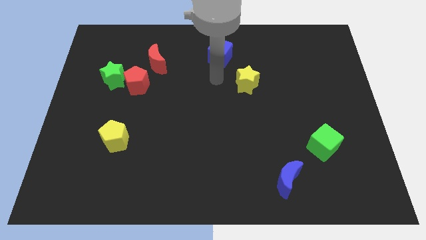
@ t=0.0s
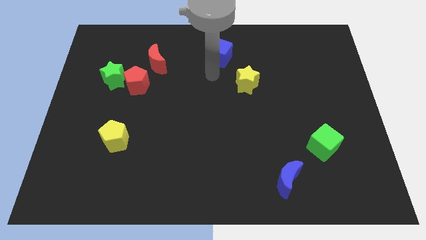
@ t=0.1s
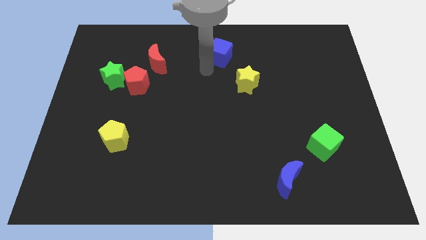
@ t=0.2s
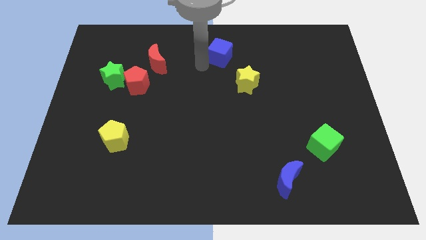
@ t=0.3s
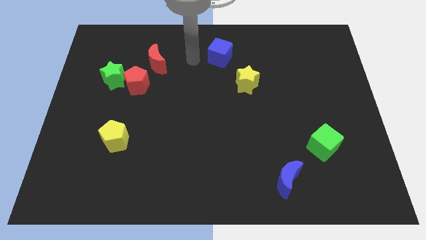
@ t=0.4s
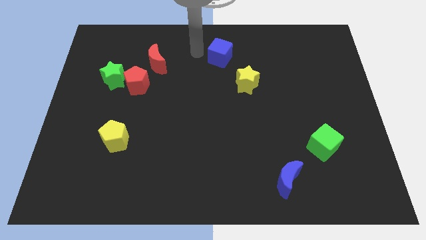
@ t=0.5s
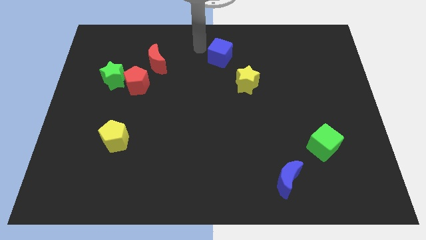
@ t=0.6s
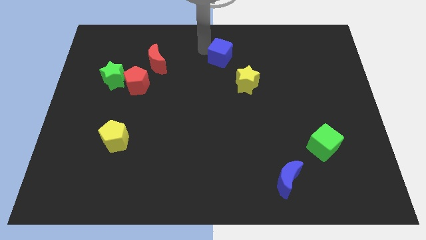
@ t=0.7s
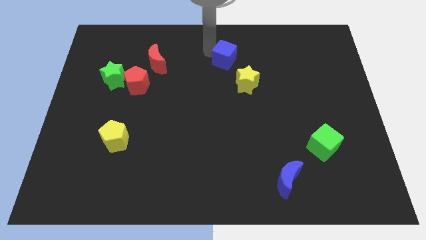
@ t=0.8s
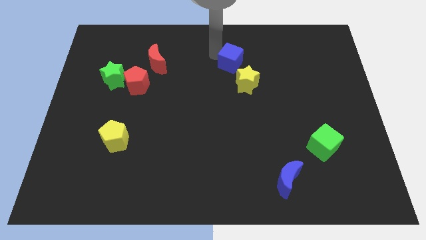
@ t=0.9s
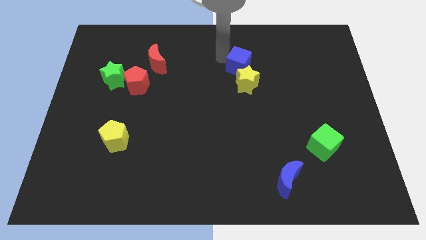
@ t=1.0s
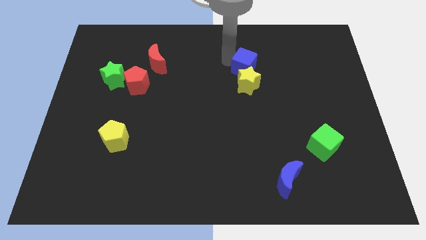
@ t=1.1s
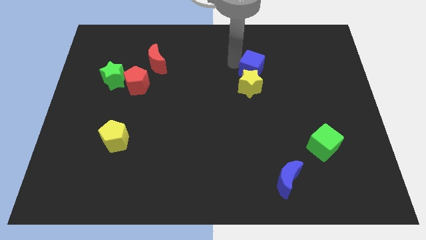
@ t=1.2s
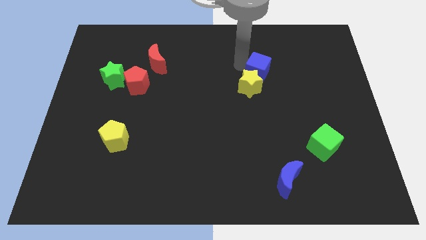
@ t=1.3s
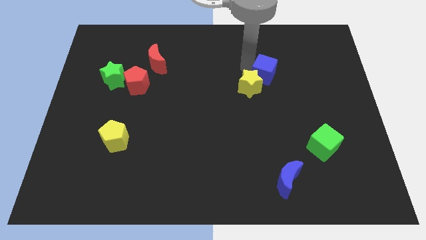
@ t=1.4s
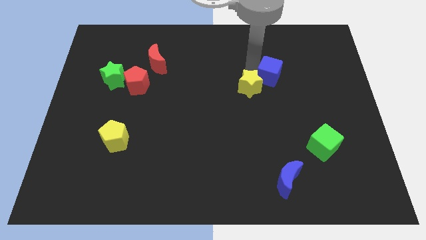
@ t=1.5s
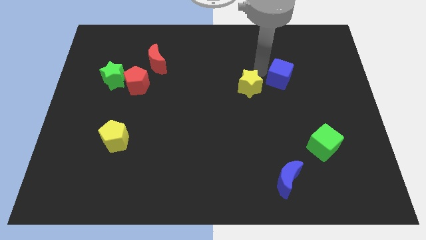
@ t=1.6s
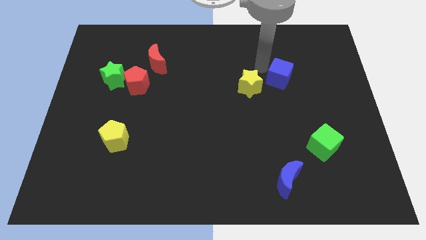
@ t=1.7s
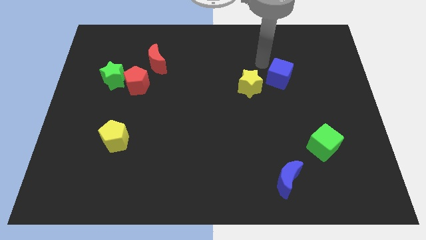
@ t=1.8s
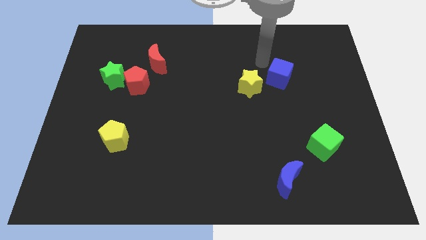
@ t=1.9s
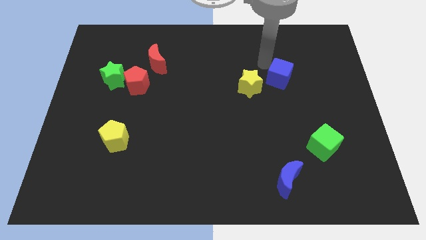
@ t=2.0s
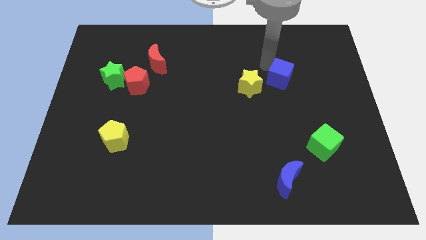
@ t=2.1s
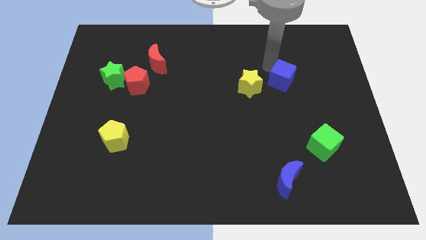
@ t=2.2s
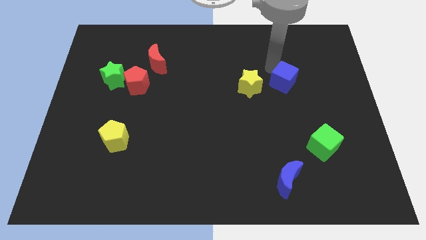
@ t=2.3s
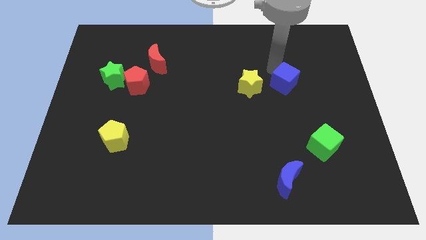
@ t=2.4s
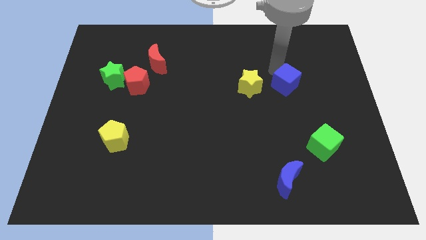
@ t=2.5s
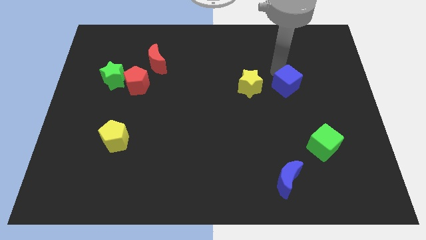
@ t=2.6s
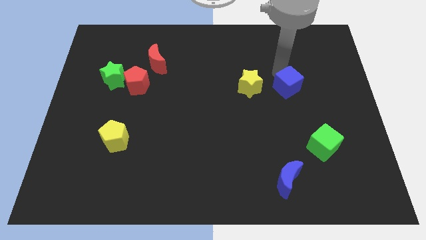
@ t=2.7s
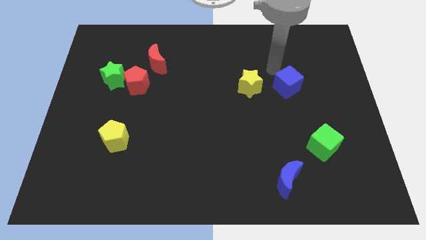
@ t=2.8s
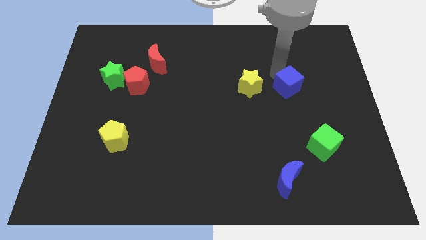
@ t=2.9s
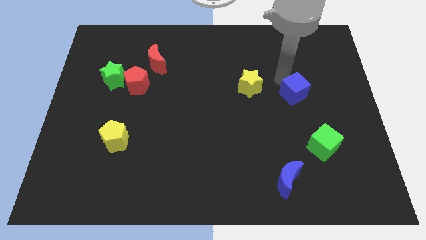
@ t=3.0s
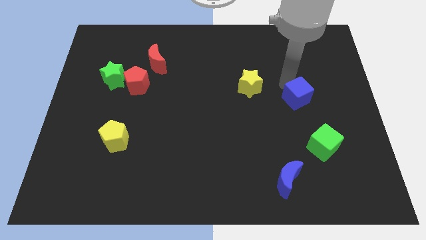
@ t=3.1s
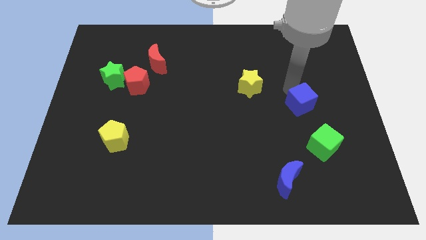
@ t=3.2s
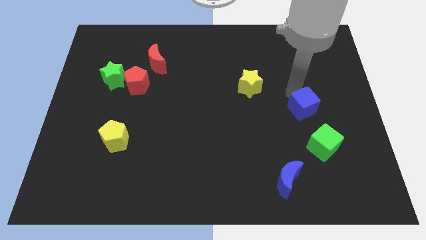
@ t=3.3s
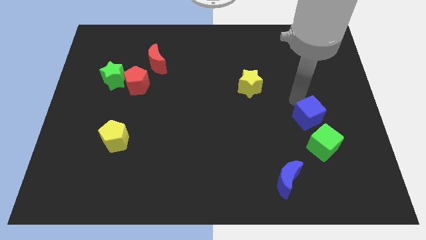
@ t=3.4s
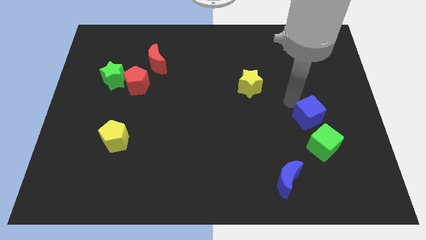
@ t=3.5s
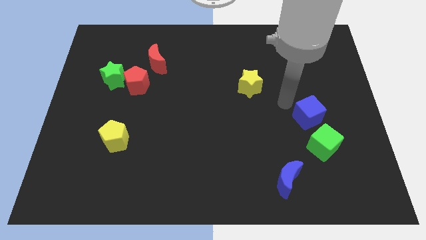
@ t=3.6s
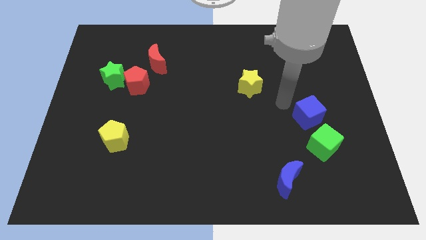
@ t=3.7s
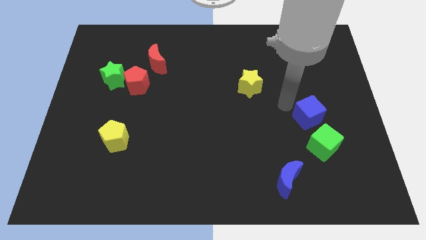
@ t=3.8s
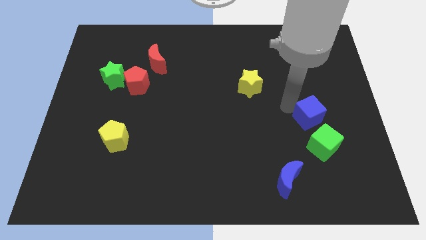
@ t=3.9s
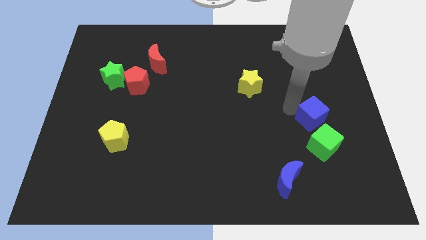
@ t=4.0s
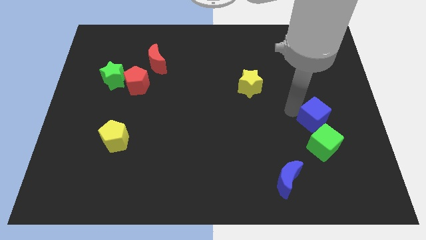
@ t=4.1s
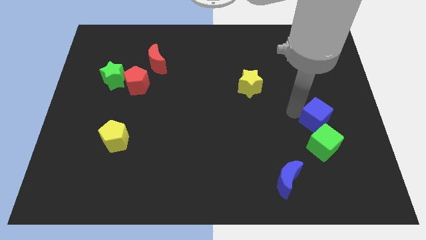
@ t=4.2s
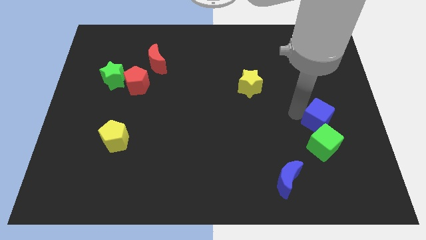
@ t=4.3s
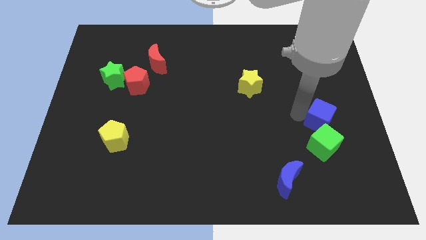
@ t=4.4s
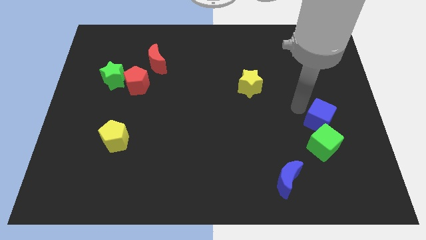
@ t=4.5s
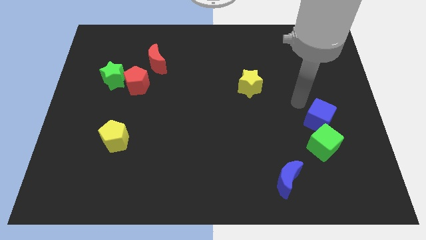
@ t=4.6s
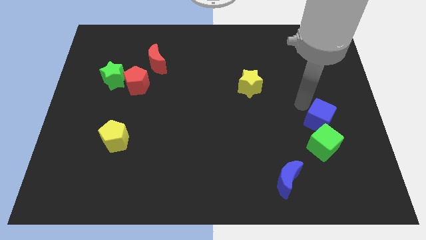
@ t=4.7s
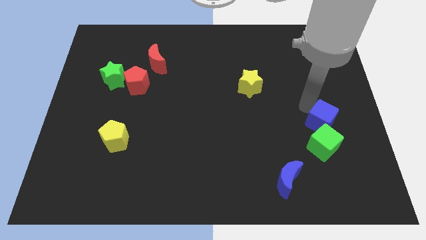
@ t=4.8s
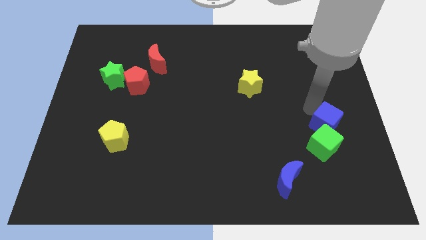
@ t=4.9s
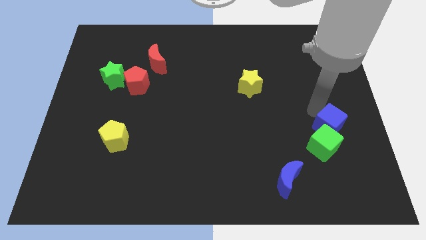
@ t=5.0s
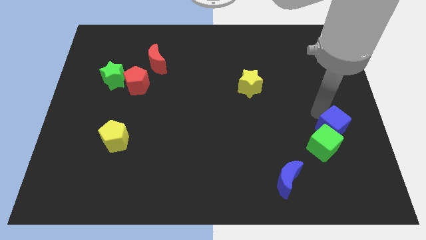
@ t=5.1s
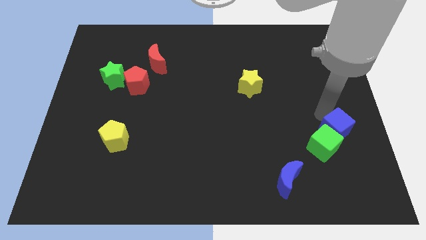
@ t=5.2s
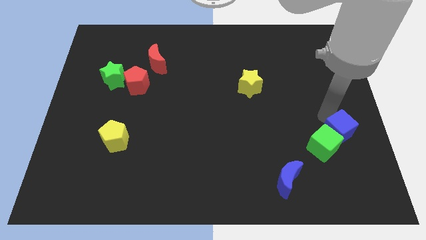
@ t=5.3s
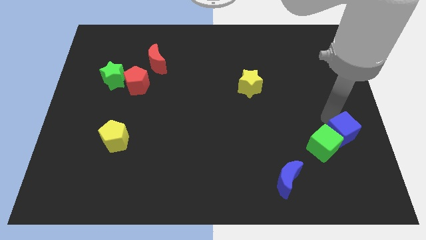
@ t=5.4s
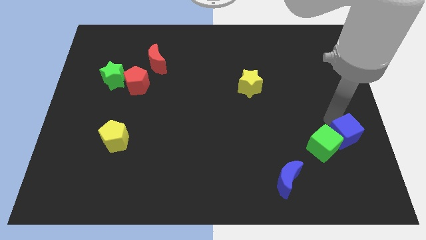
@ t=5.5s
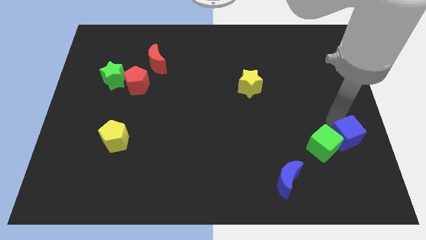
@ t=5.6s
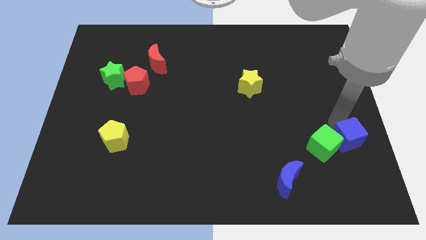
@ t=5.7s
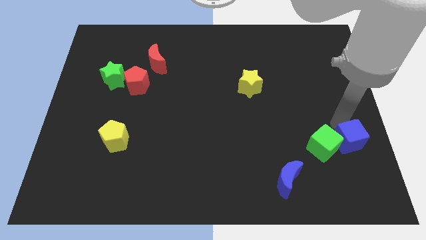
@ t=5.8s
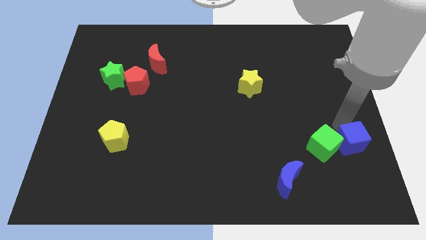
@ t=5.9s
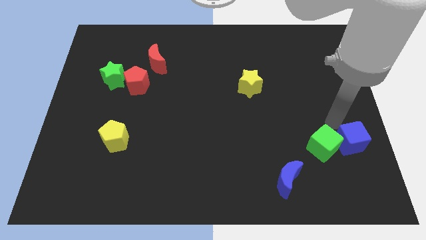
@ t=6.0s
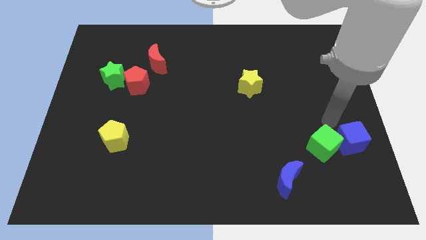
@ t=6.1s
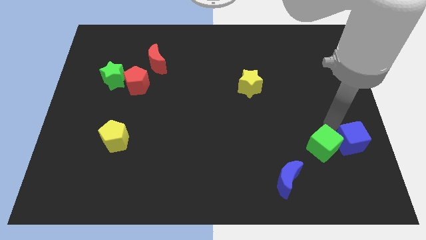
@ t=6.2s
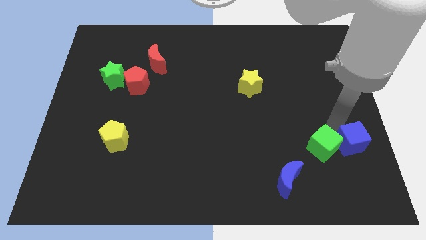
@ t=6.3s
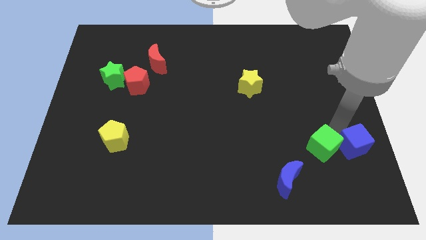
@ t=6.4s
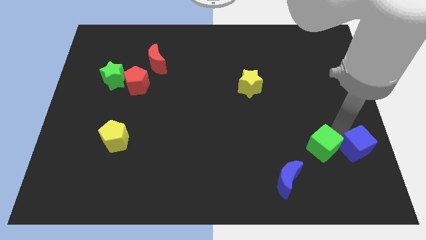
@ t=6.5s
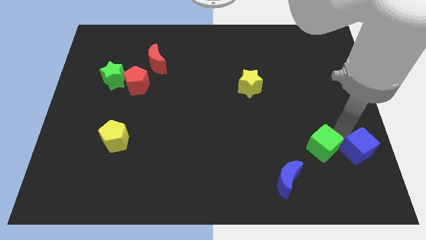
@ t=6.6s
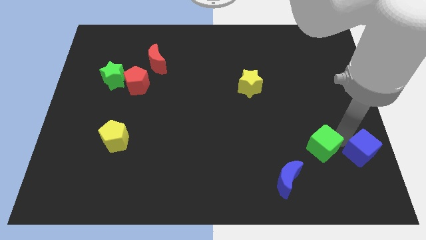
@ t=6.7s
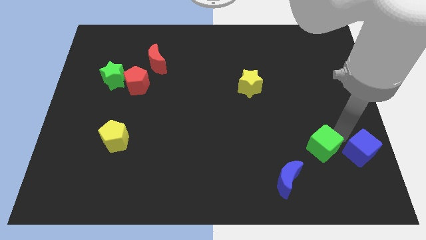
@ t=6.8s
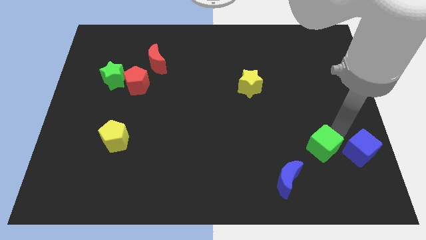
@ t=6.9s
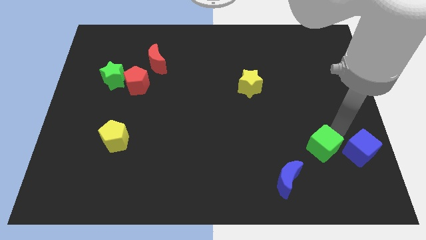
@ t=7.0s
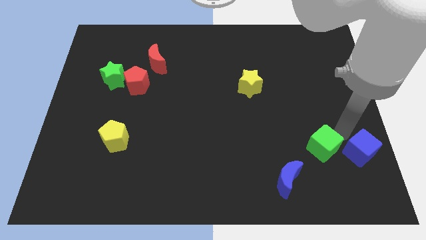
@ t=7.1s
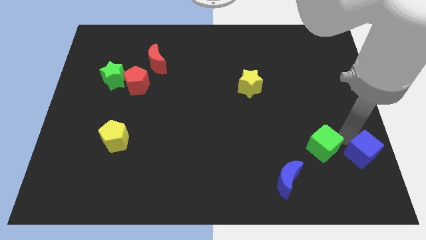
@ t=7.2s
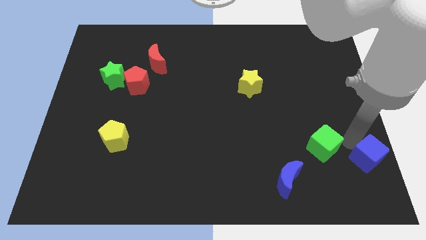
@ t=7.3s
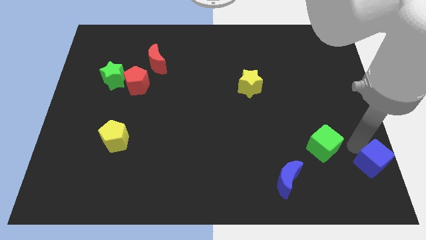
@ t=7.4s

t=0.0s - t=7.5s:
move the blue cube to the lower right corner
